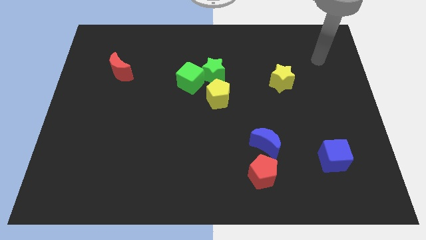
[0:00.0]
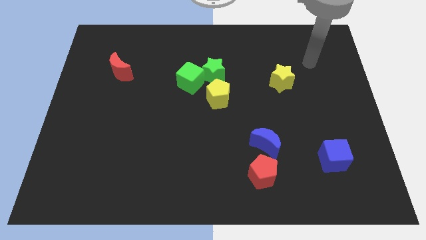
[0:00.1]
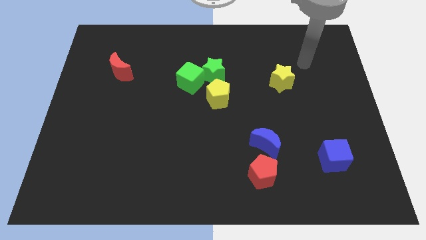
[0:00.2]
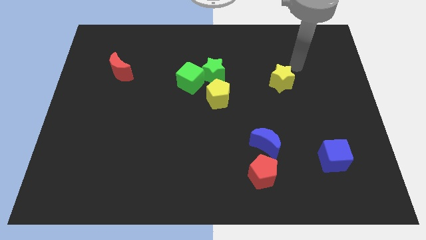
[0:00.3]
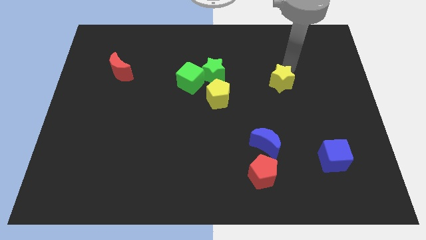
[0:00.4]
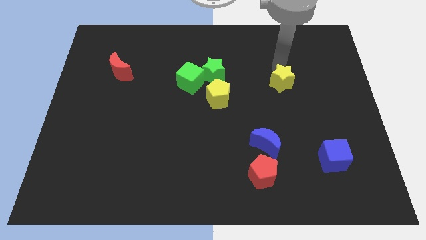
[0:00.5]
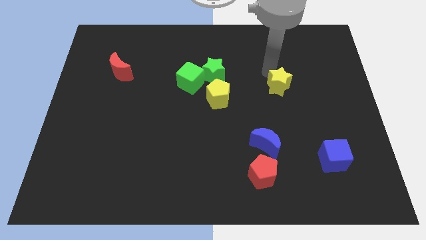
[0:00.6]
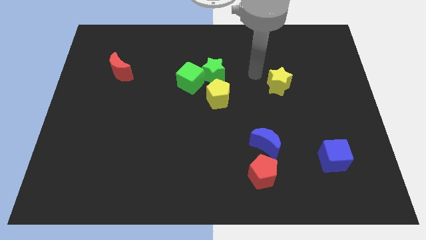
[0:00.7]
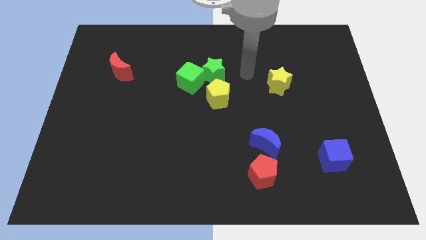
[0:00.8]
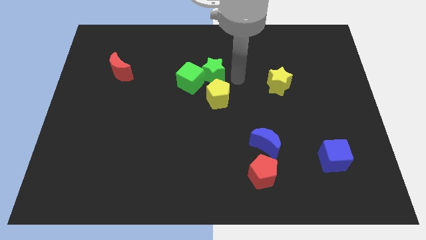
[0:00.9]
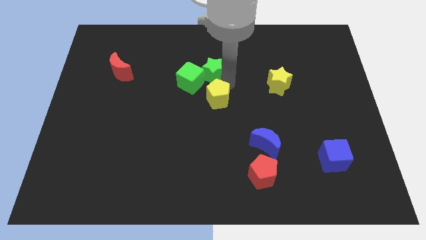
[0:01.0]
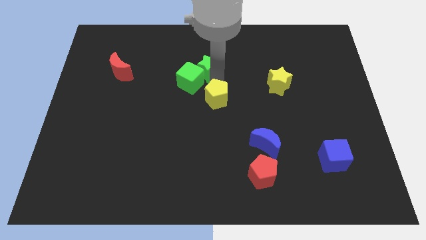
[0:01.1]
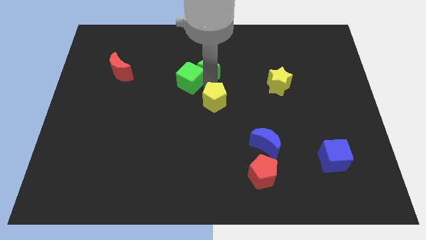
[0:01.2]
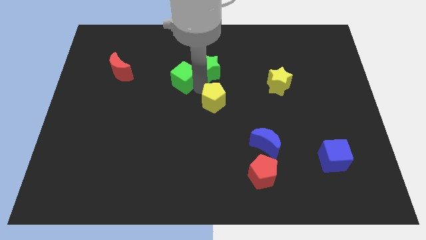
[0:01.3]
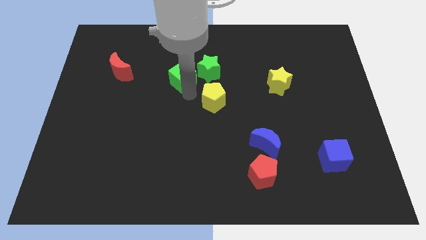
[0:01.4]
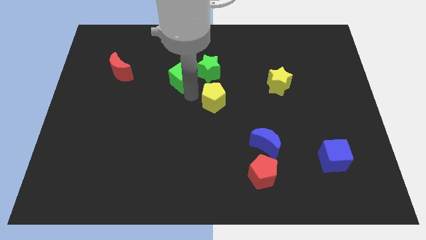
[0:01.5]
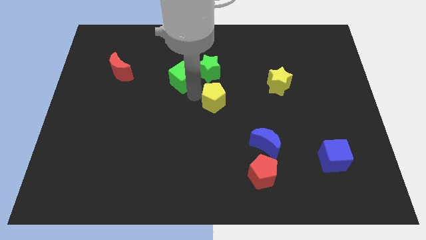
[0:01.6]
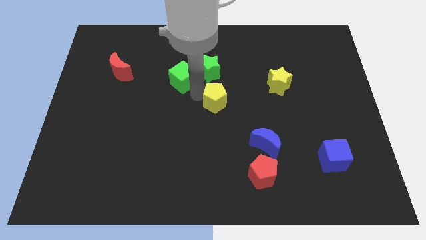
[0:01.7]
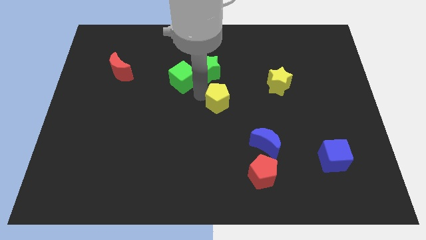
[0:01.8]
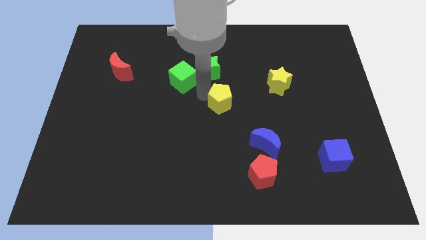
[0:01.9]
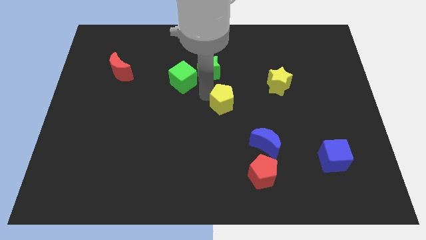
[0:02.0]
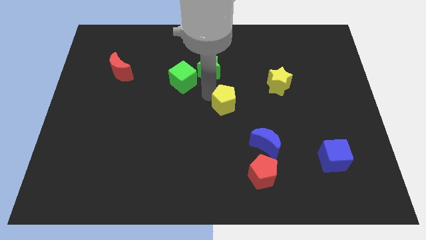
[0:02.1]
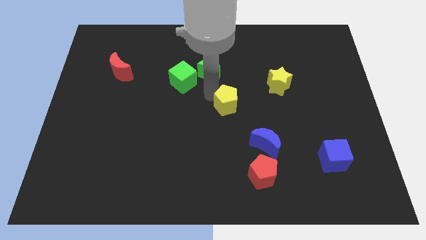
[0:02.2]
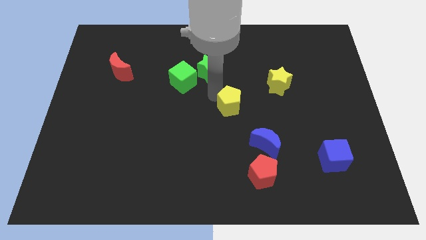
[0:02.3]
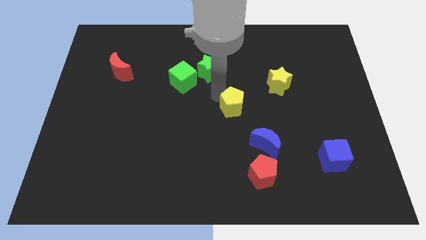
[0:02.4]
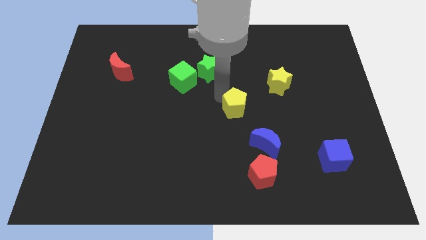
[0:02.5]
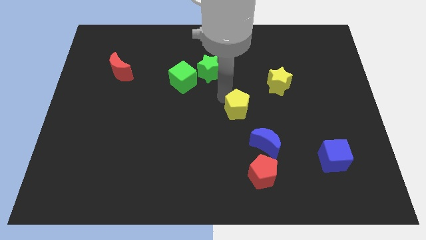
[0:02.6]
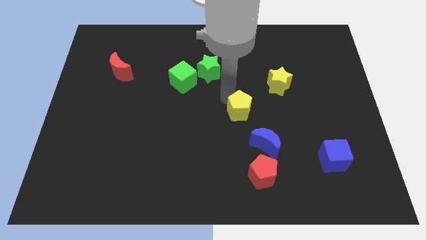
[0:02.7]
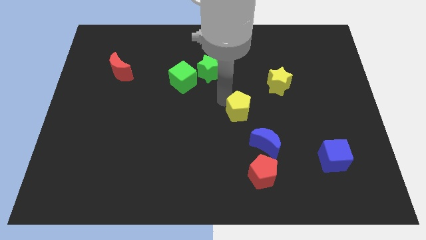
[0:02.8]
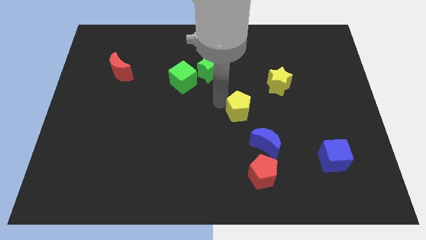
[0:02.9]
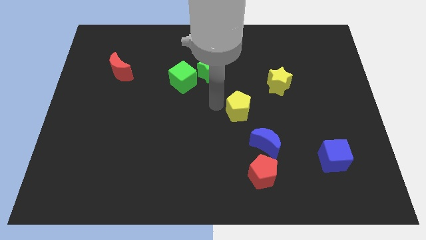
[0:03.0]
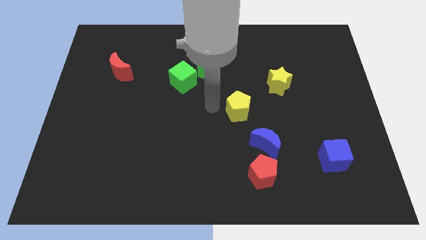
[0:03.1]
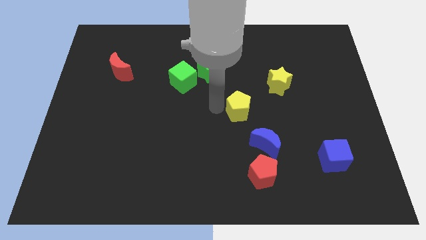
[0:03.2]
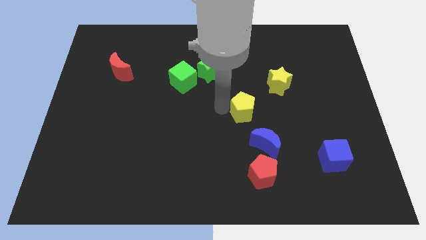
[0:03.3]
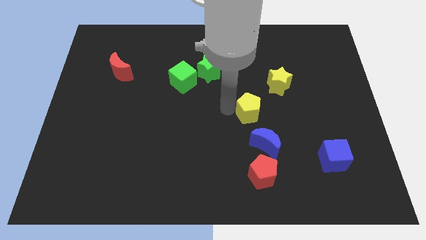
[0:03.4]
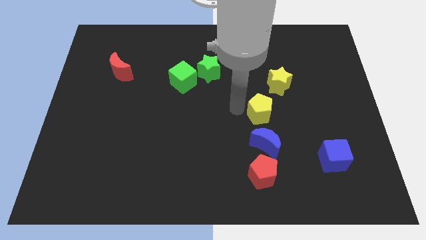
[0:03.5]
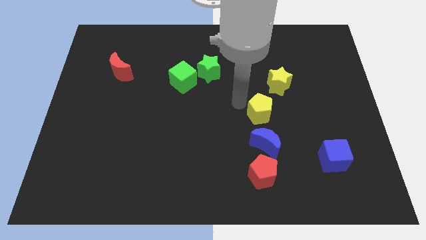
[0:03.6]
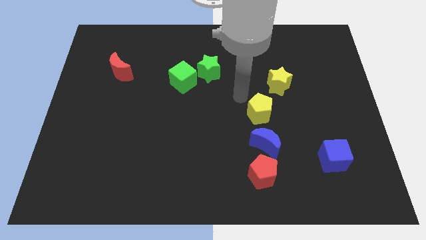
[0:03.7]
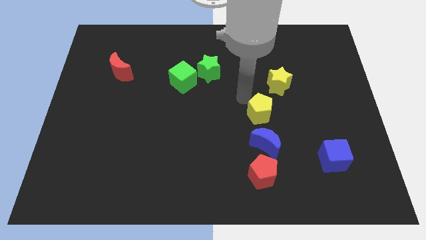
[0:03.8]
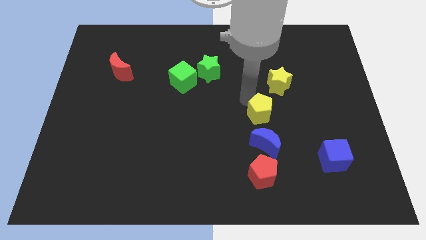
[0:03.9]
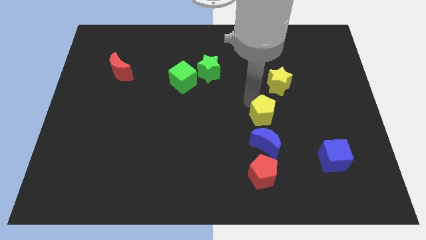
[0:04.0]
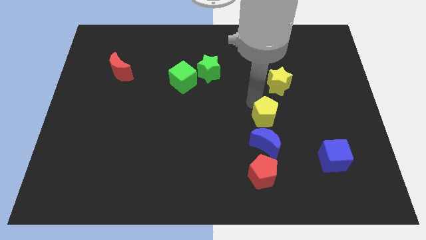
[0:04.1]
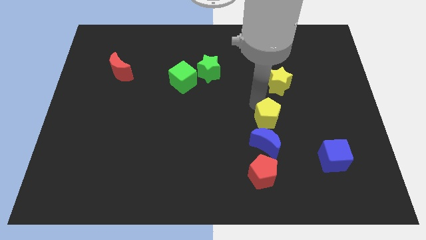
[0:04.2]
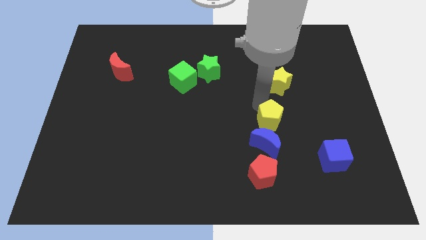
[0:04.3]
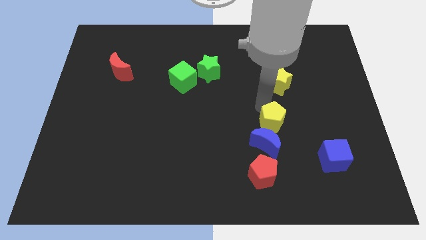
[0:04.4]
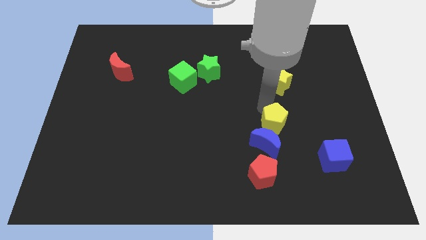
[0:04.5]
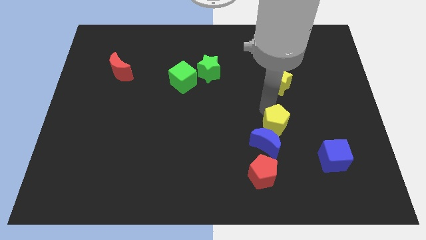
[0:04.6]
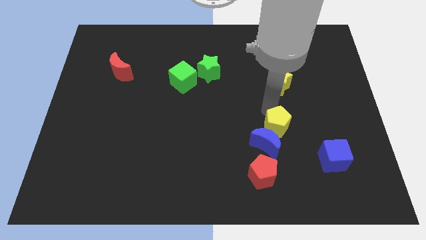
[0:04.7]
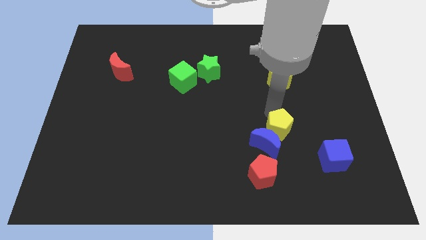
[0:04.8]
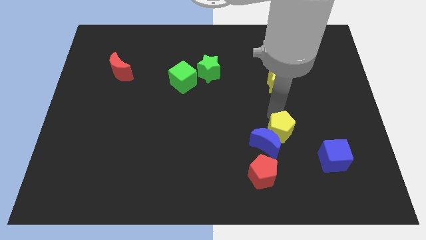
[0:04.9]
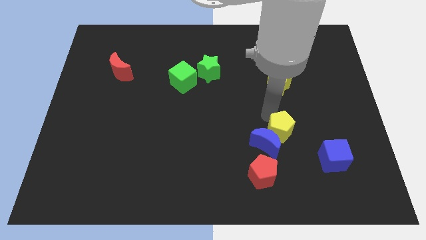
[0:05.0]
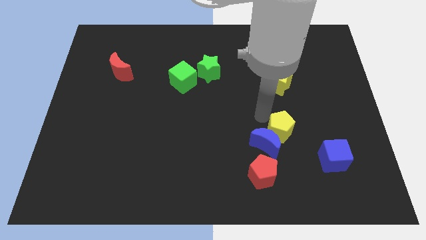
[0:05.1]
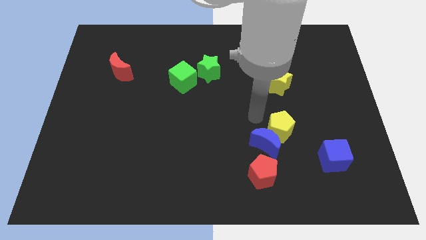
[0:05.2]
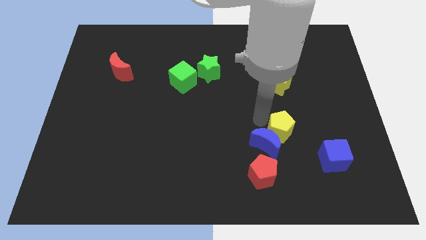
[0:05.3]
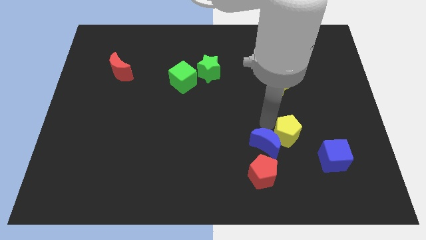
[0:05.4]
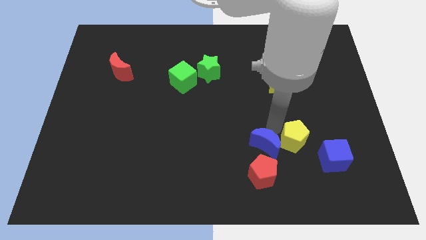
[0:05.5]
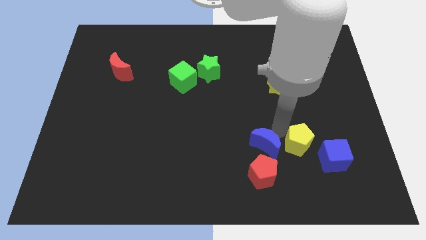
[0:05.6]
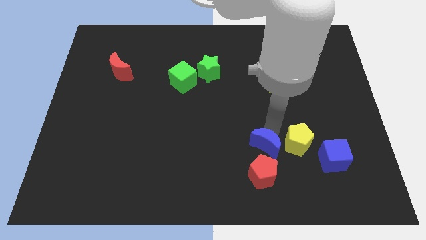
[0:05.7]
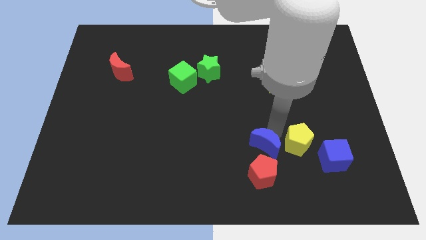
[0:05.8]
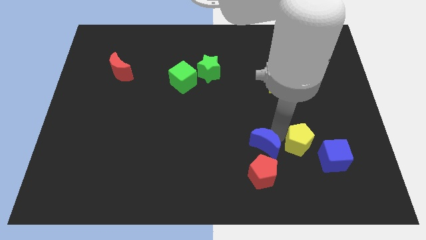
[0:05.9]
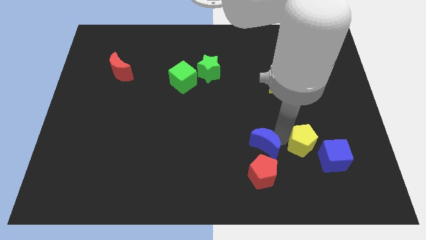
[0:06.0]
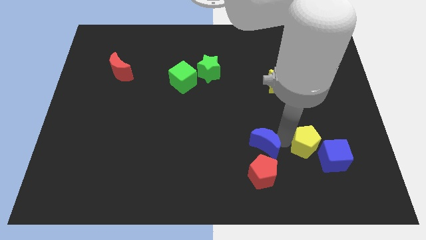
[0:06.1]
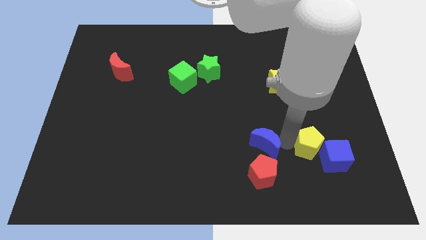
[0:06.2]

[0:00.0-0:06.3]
push the yellow pentagon close to the blue cube
